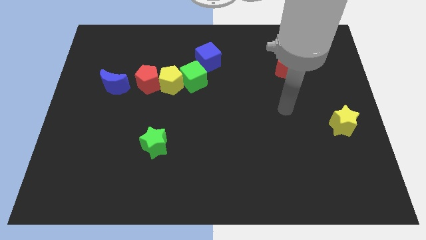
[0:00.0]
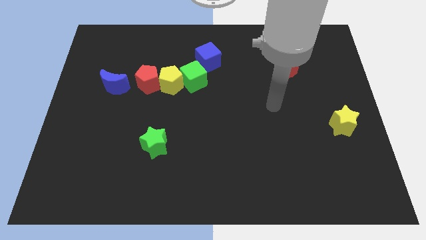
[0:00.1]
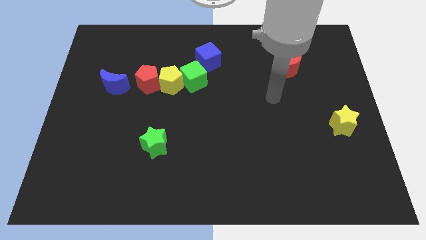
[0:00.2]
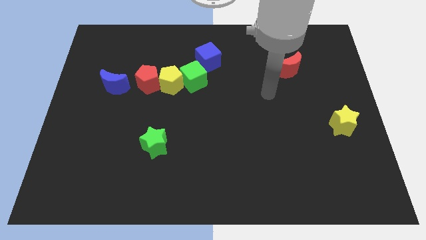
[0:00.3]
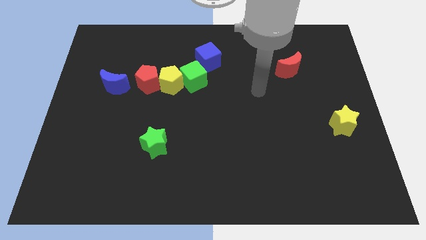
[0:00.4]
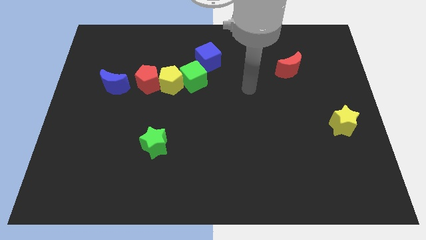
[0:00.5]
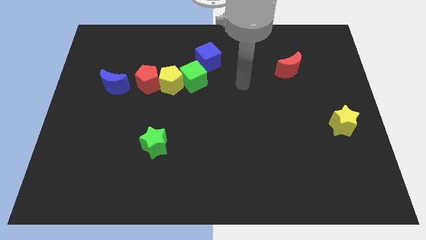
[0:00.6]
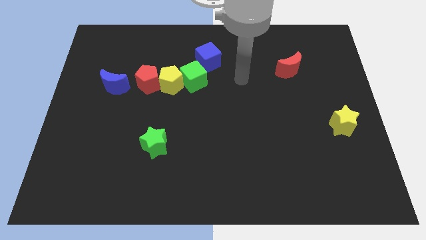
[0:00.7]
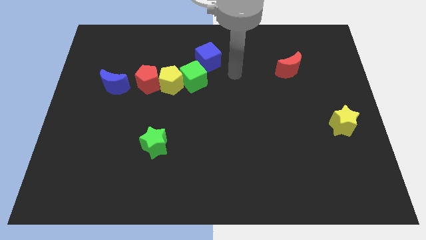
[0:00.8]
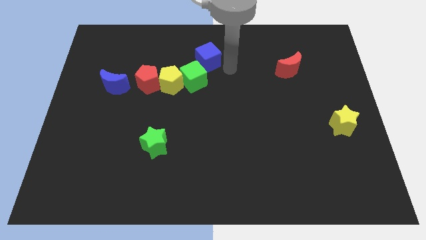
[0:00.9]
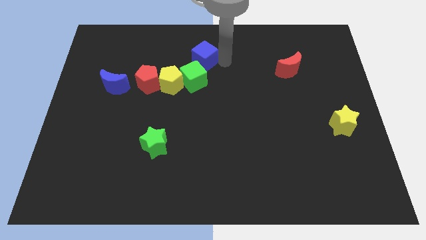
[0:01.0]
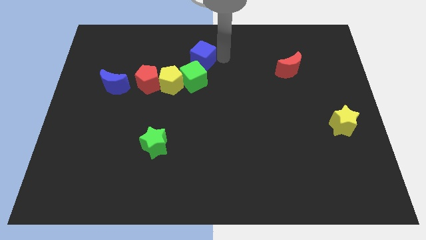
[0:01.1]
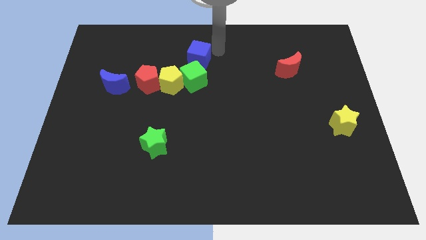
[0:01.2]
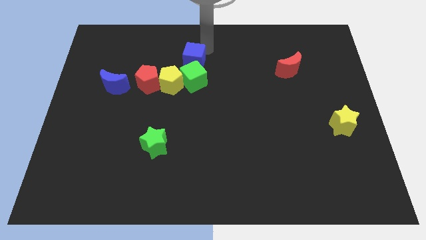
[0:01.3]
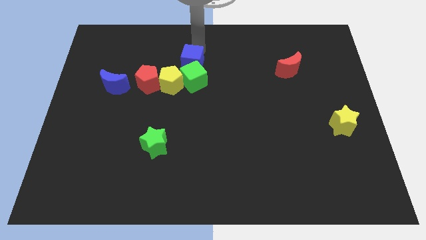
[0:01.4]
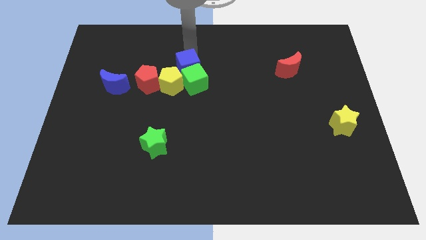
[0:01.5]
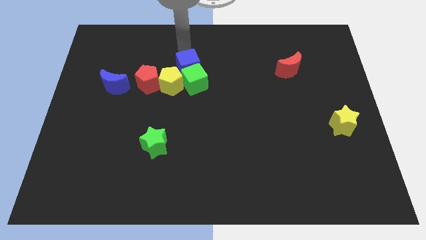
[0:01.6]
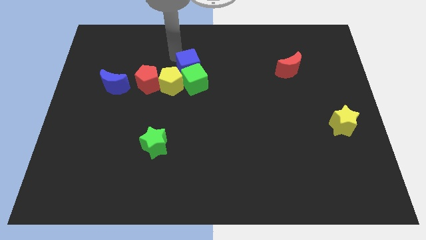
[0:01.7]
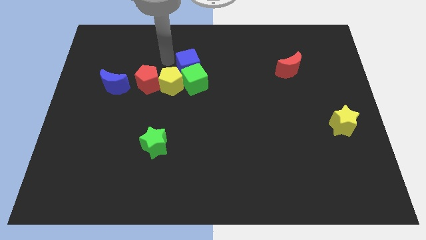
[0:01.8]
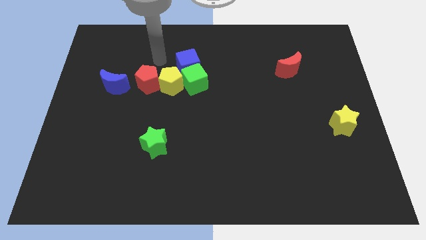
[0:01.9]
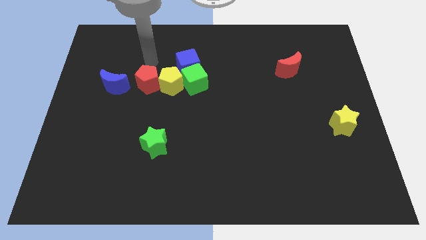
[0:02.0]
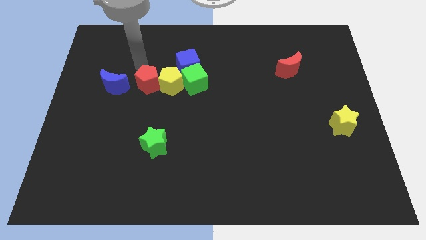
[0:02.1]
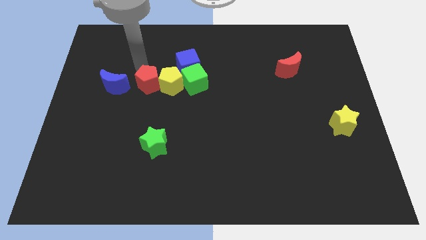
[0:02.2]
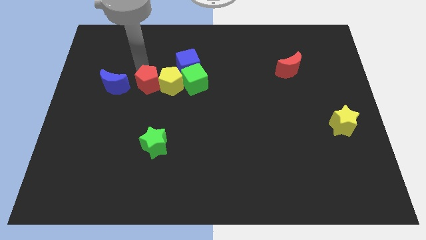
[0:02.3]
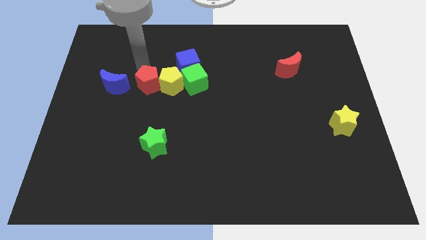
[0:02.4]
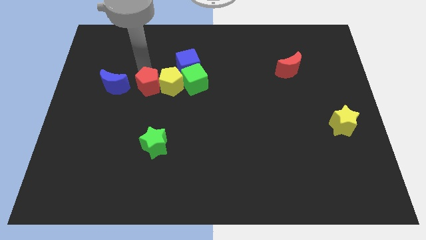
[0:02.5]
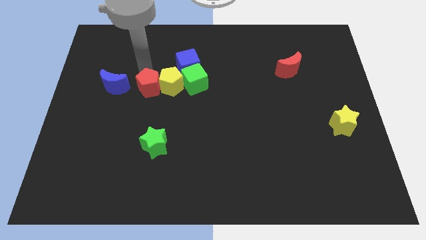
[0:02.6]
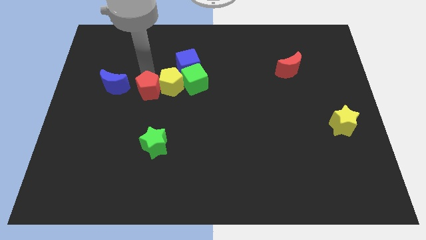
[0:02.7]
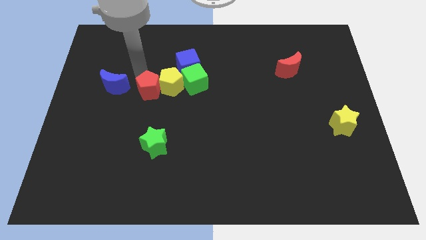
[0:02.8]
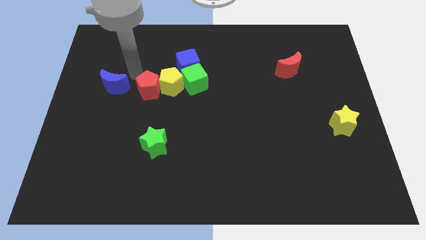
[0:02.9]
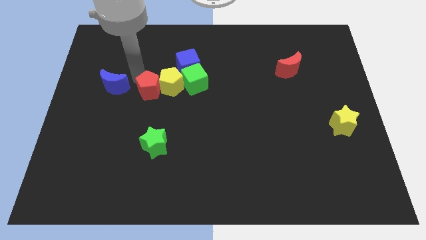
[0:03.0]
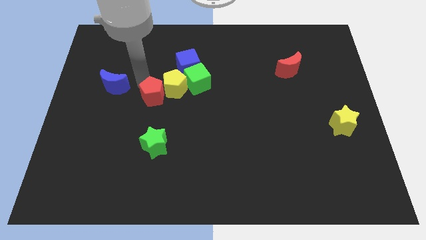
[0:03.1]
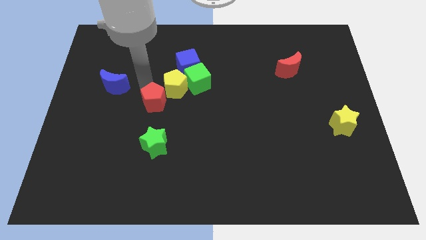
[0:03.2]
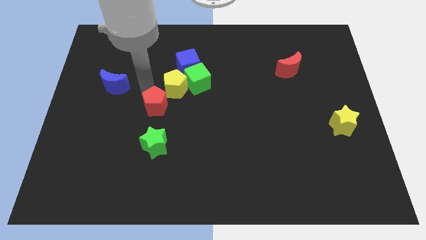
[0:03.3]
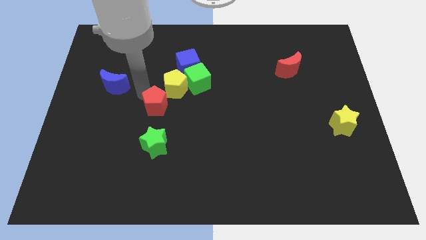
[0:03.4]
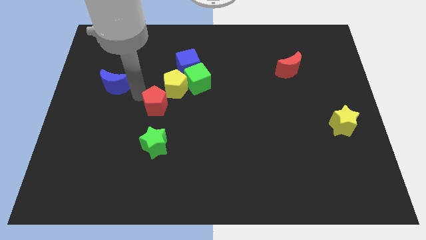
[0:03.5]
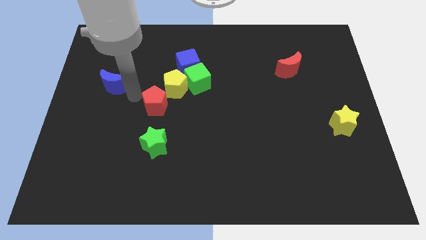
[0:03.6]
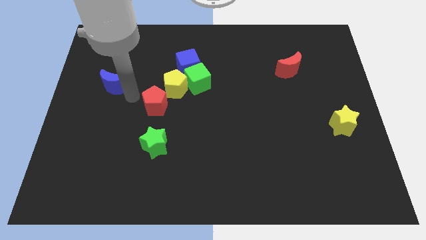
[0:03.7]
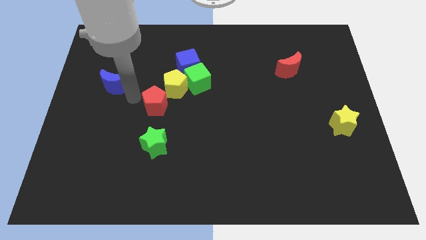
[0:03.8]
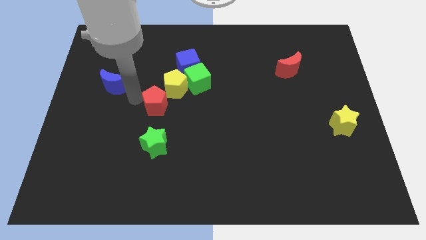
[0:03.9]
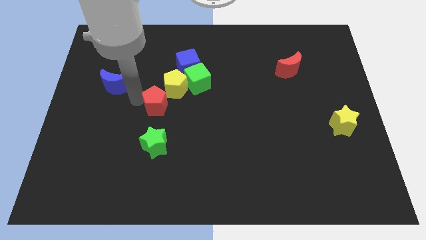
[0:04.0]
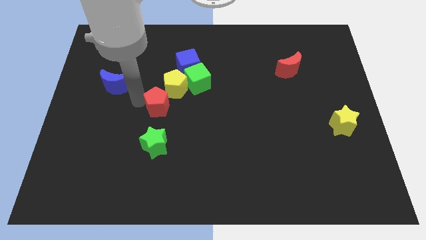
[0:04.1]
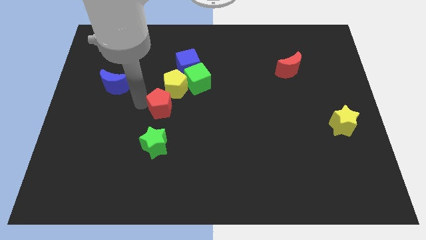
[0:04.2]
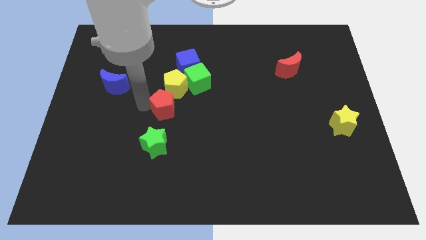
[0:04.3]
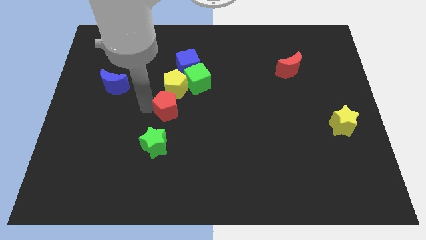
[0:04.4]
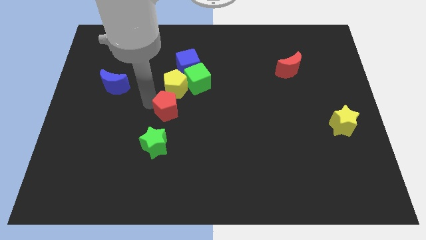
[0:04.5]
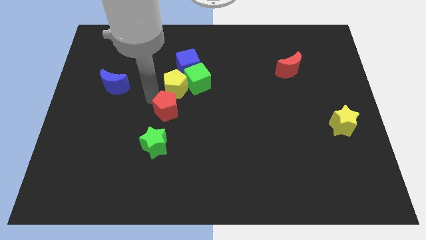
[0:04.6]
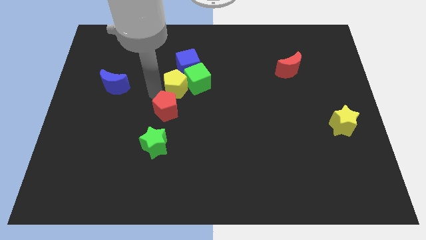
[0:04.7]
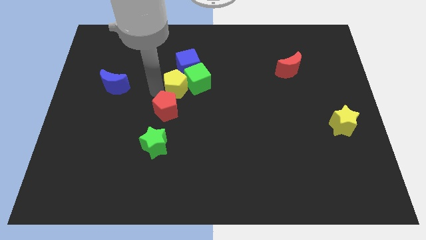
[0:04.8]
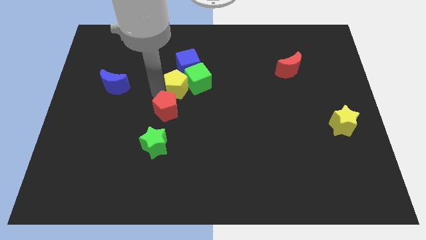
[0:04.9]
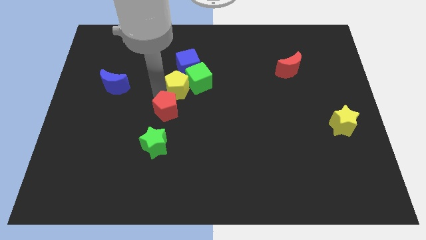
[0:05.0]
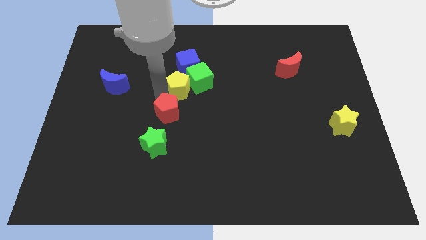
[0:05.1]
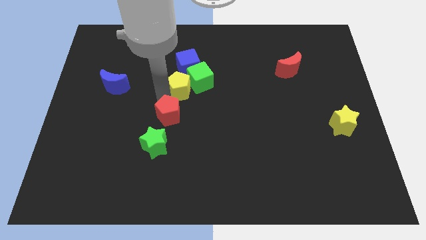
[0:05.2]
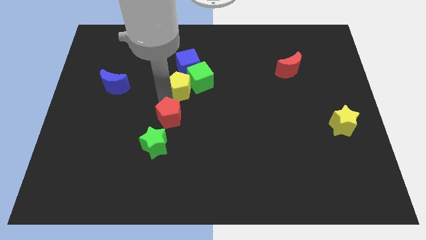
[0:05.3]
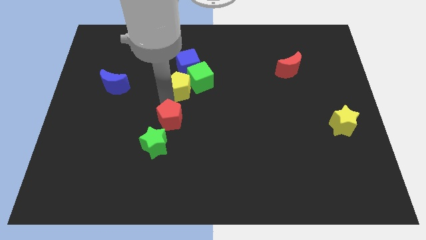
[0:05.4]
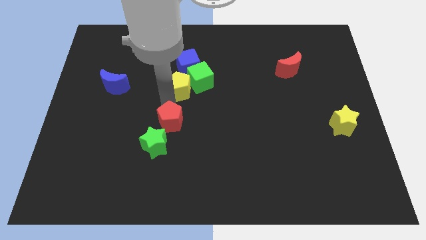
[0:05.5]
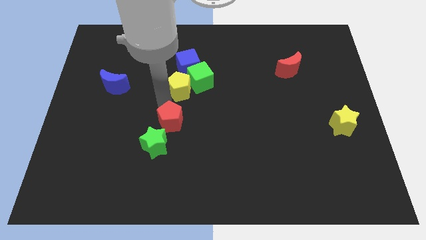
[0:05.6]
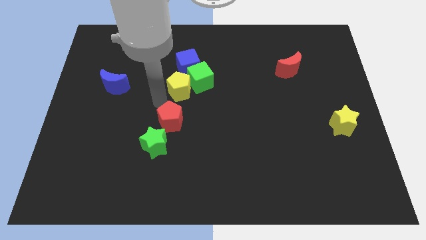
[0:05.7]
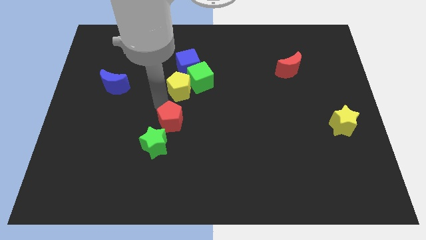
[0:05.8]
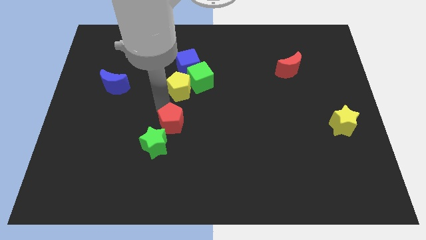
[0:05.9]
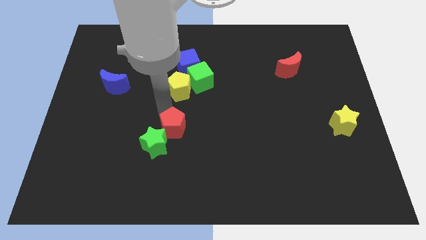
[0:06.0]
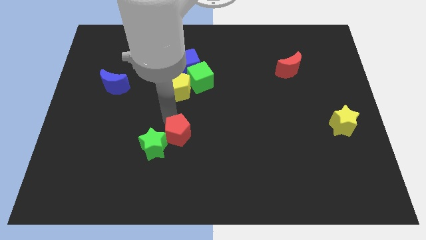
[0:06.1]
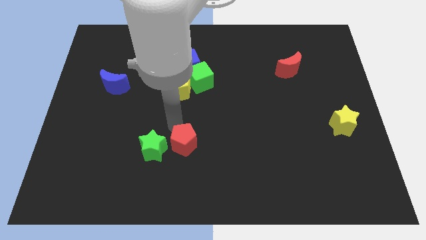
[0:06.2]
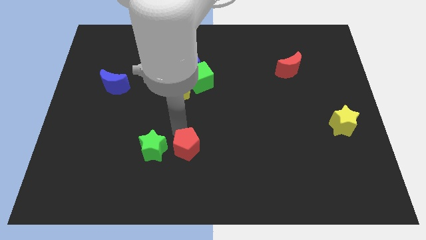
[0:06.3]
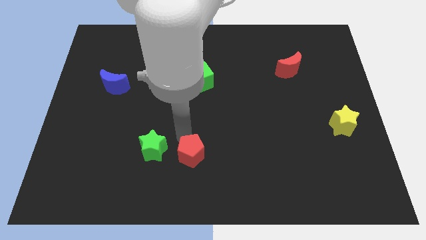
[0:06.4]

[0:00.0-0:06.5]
slide the red pentagon to the bottom right side of the green star

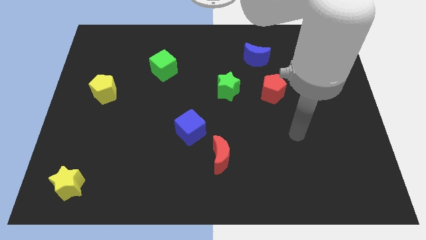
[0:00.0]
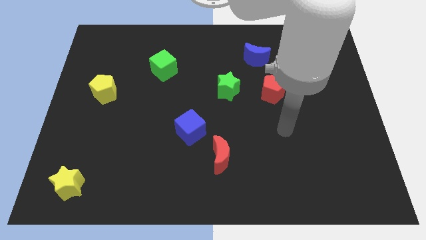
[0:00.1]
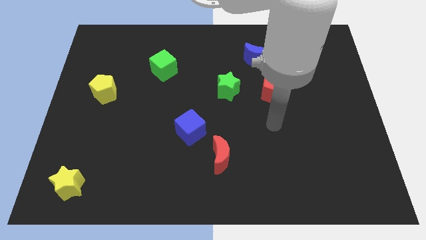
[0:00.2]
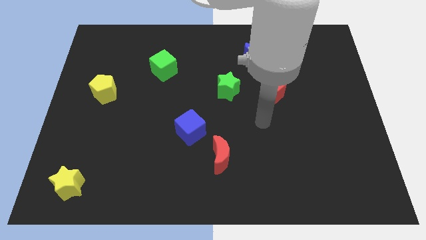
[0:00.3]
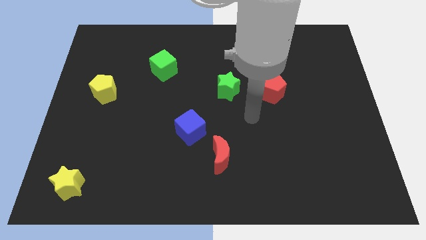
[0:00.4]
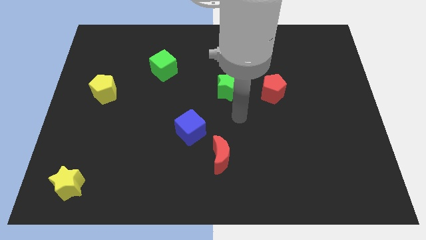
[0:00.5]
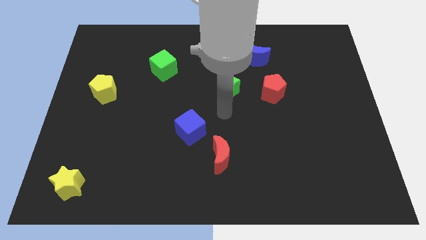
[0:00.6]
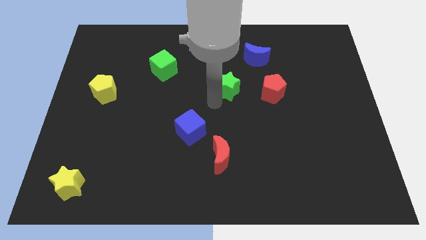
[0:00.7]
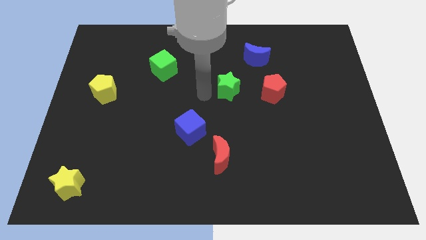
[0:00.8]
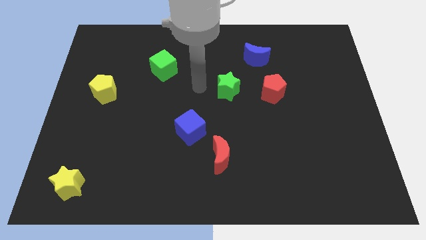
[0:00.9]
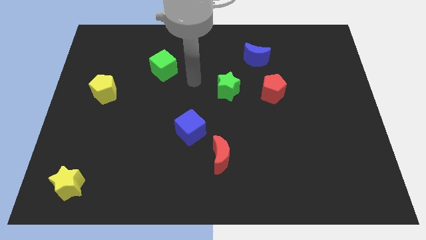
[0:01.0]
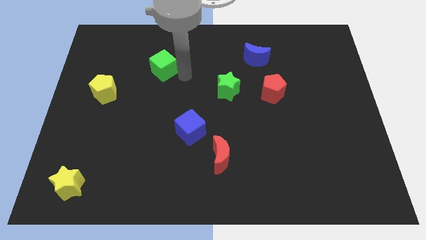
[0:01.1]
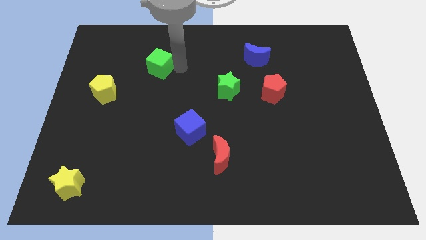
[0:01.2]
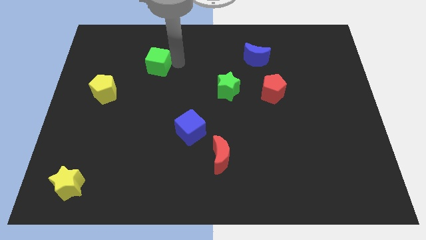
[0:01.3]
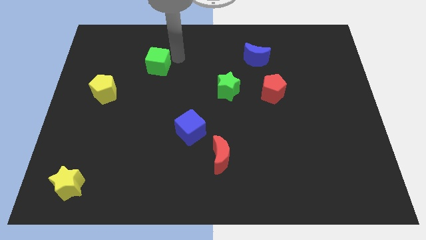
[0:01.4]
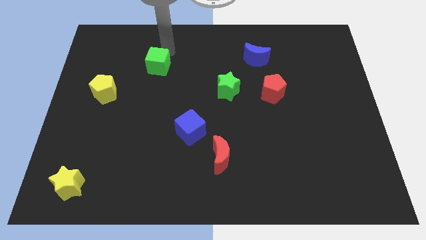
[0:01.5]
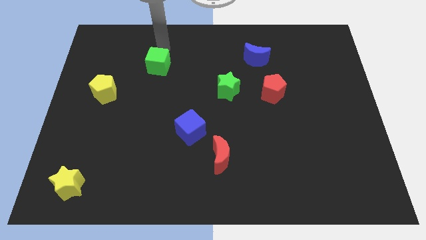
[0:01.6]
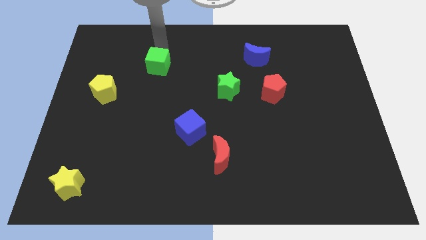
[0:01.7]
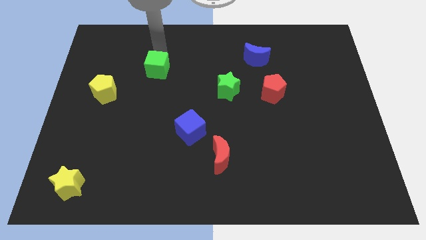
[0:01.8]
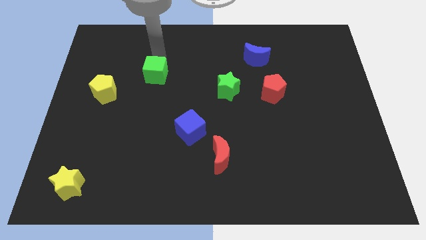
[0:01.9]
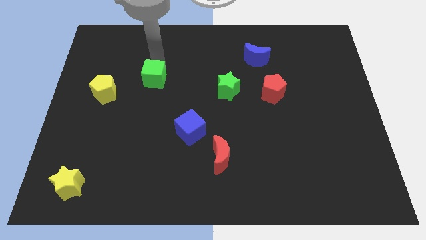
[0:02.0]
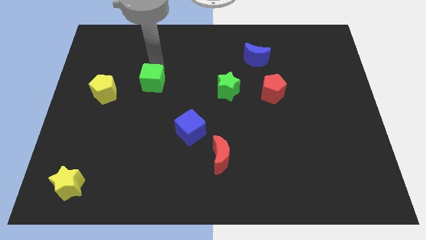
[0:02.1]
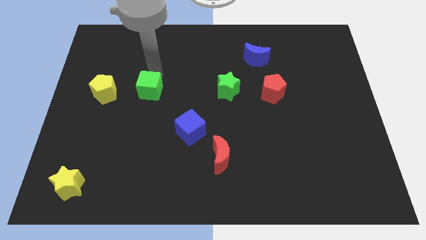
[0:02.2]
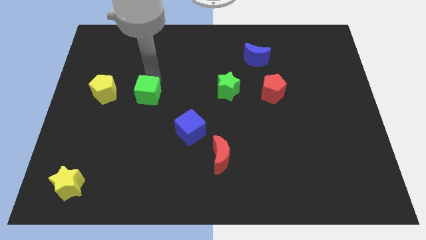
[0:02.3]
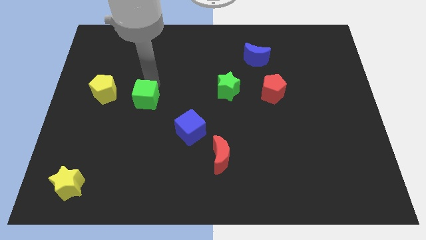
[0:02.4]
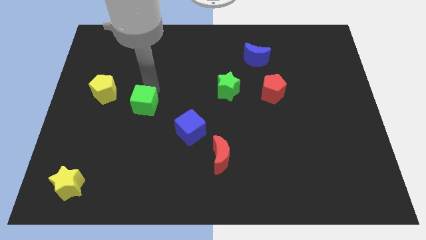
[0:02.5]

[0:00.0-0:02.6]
put the green cube to the bottom right of the yellow pentagon
